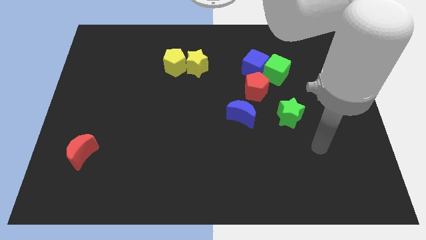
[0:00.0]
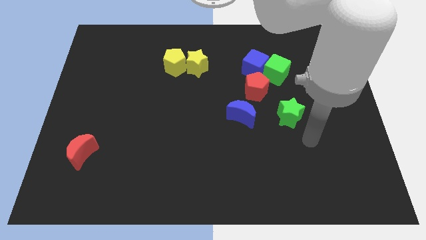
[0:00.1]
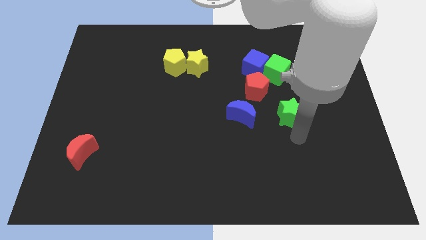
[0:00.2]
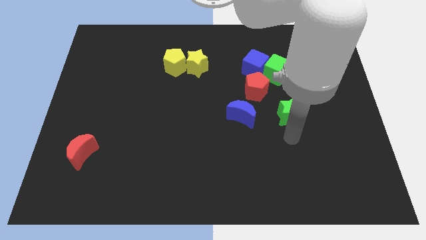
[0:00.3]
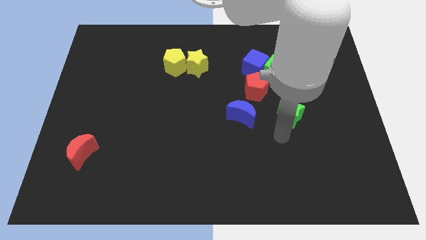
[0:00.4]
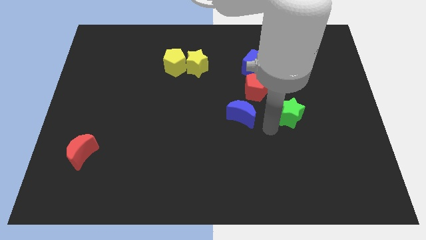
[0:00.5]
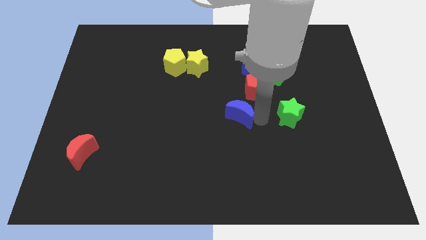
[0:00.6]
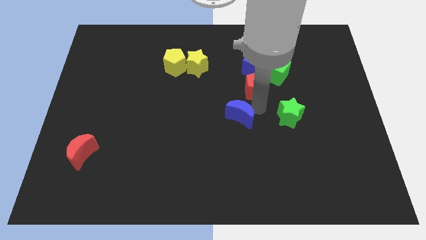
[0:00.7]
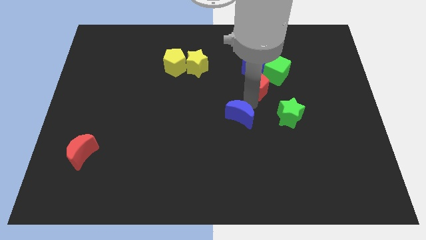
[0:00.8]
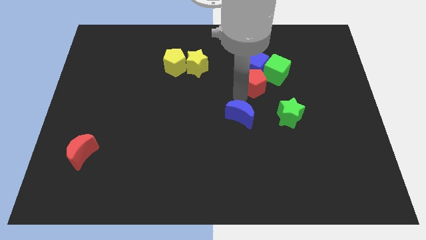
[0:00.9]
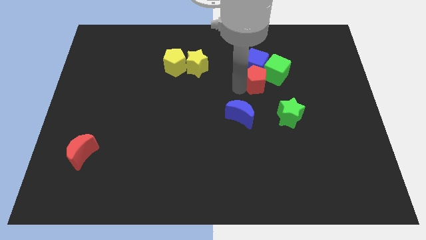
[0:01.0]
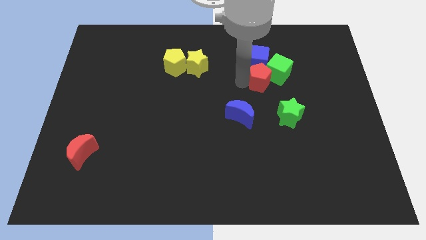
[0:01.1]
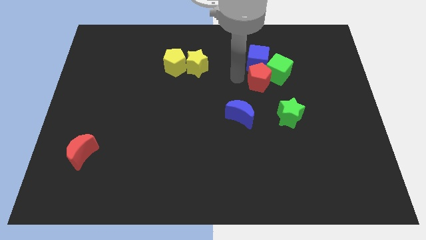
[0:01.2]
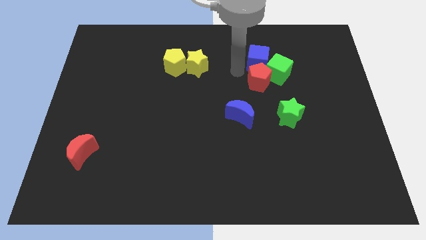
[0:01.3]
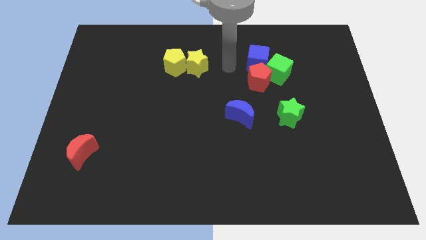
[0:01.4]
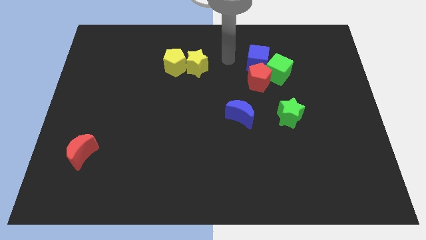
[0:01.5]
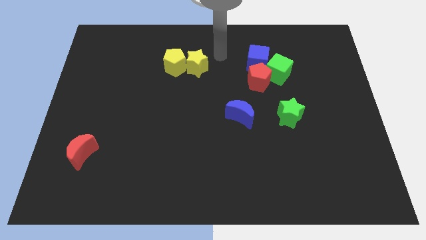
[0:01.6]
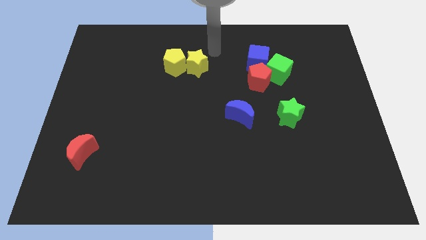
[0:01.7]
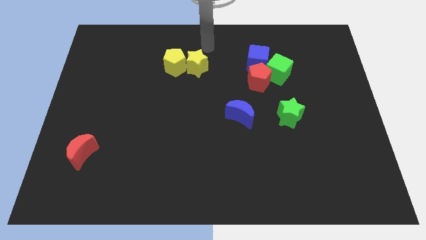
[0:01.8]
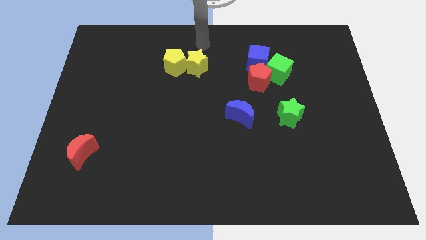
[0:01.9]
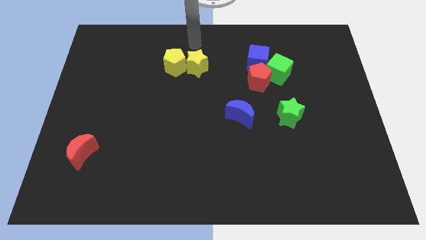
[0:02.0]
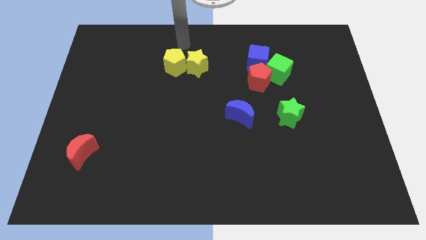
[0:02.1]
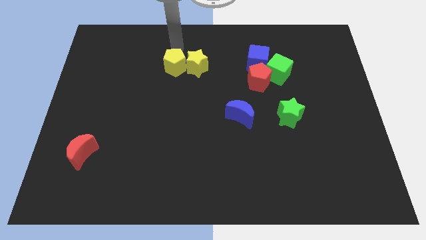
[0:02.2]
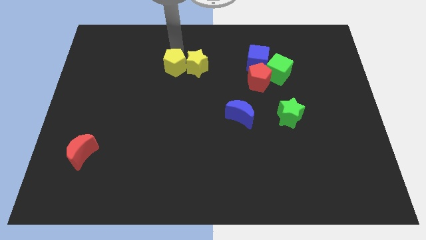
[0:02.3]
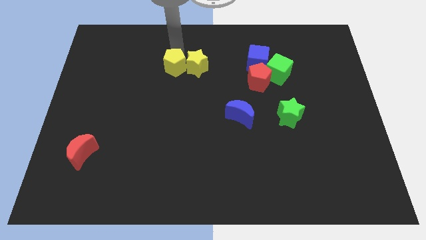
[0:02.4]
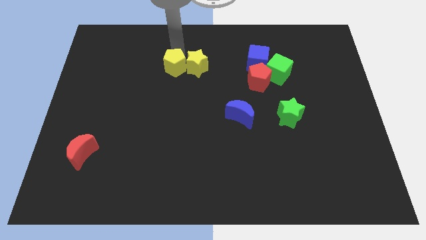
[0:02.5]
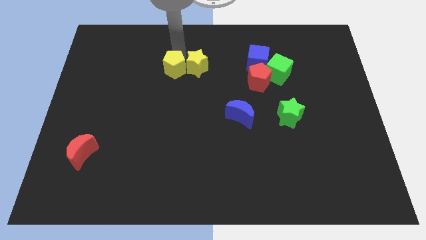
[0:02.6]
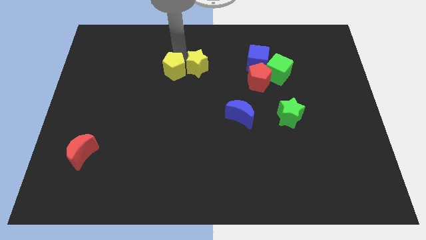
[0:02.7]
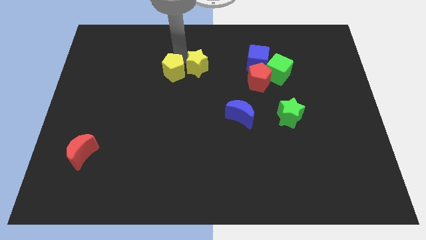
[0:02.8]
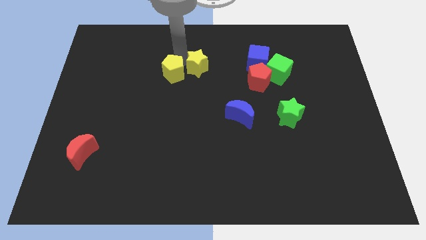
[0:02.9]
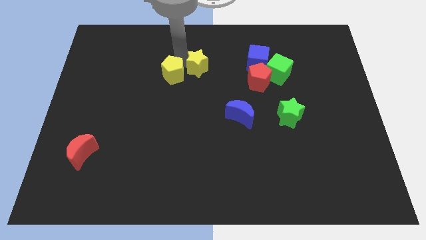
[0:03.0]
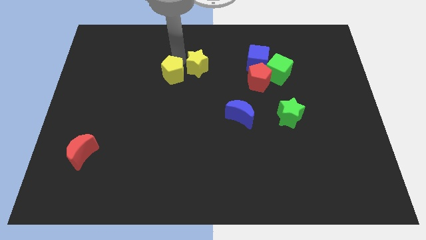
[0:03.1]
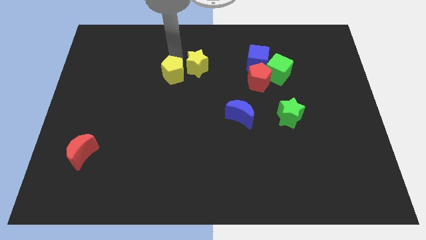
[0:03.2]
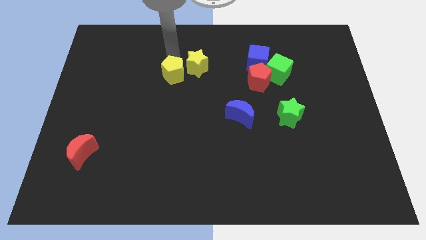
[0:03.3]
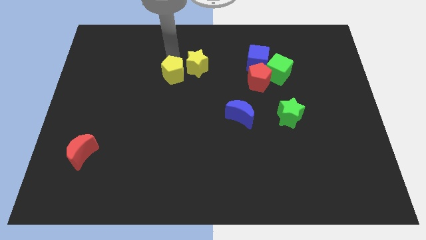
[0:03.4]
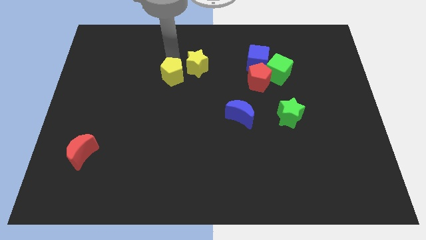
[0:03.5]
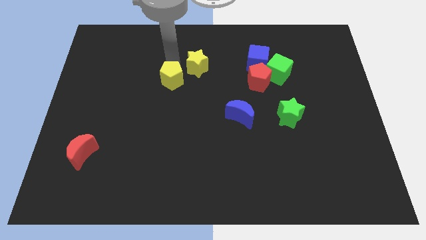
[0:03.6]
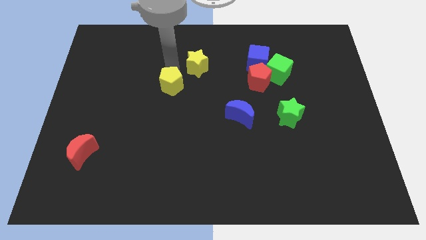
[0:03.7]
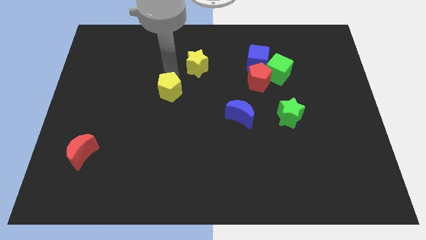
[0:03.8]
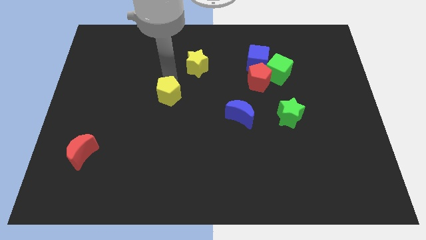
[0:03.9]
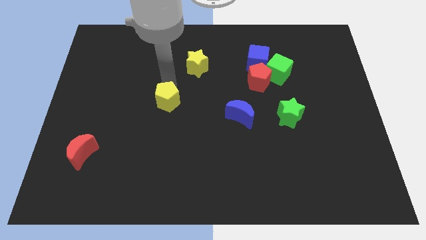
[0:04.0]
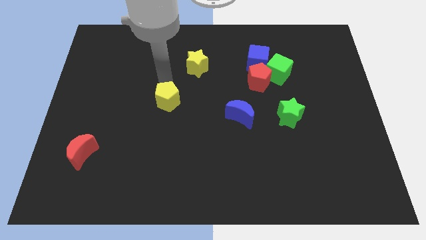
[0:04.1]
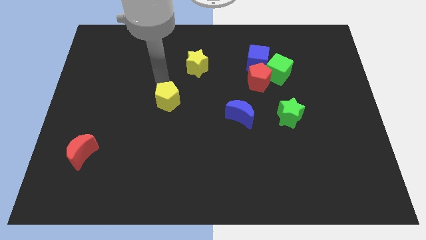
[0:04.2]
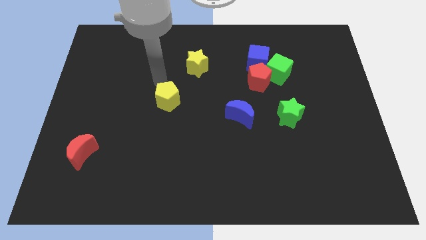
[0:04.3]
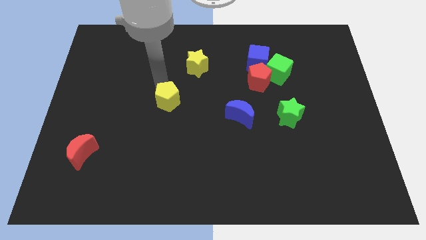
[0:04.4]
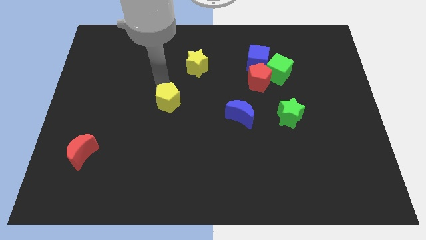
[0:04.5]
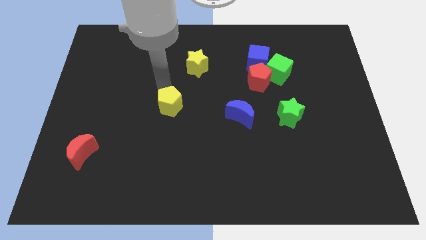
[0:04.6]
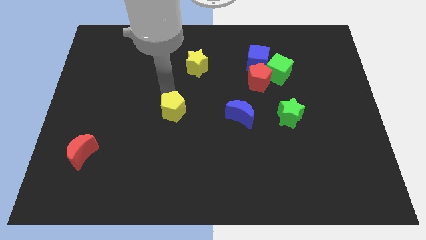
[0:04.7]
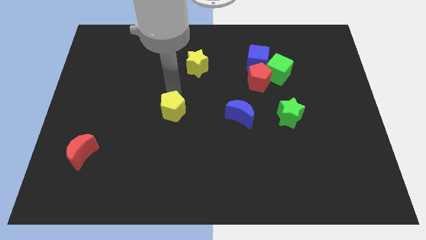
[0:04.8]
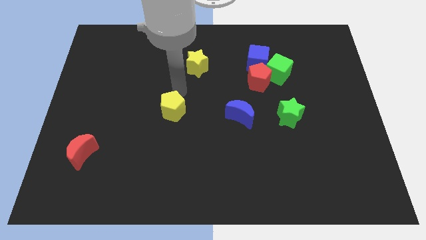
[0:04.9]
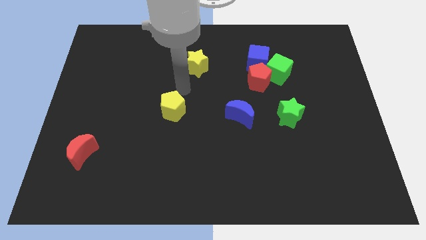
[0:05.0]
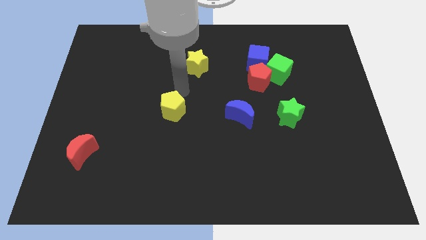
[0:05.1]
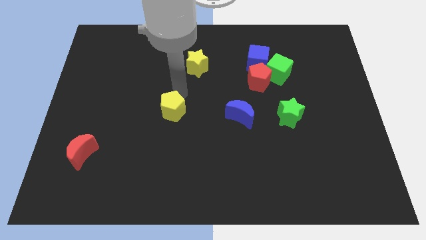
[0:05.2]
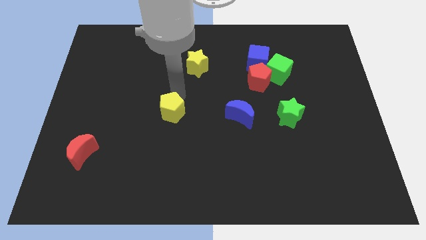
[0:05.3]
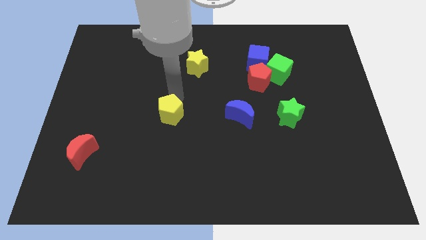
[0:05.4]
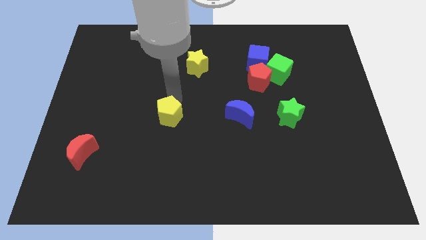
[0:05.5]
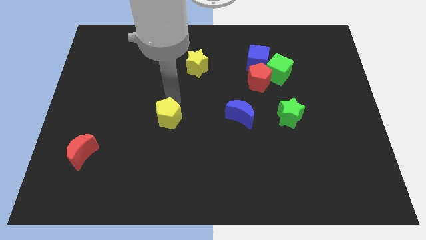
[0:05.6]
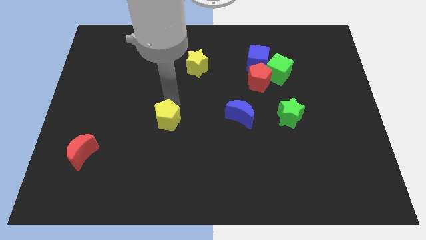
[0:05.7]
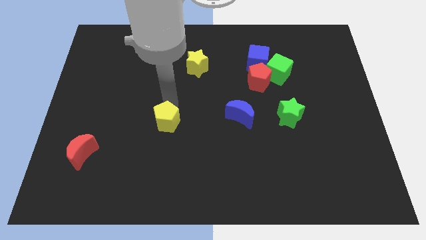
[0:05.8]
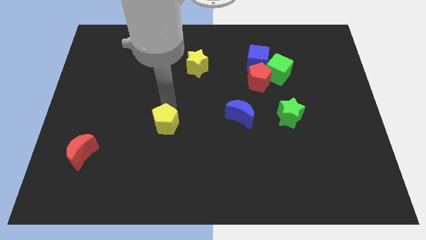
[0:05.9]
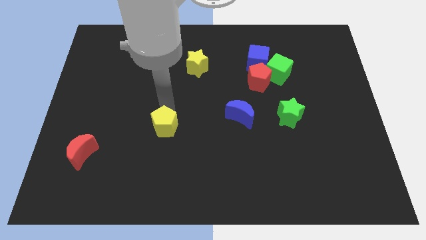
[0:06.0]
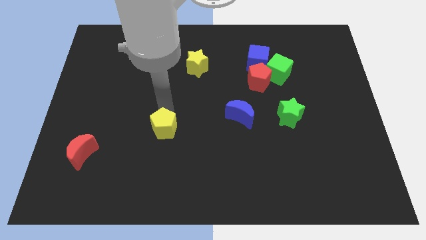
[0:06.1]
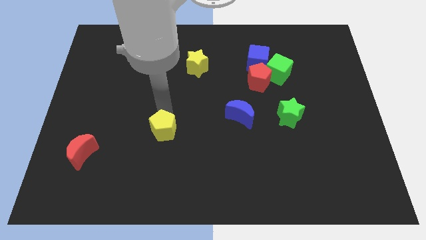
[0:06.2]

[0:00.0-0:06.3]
move the yellow pentagon down

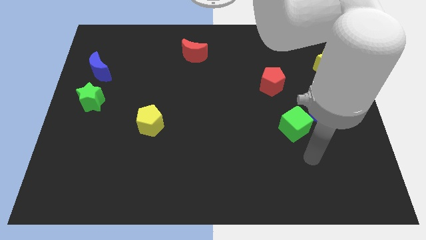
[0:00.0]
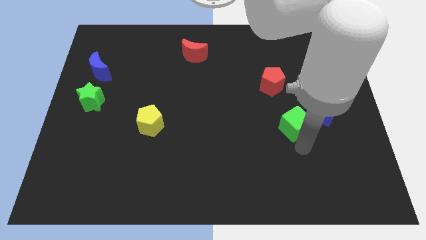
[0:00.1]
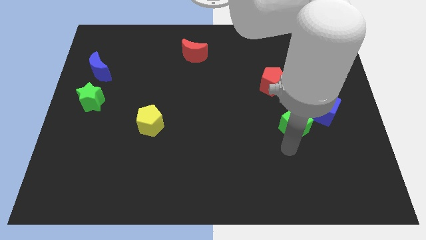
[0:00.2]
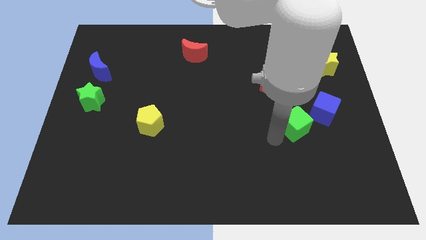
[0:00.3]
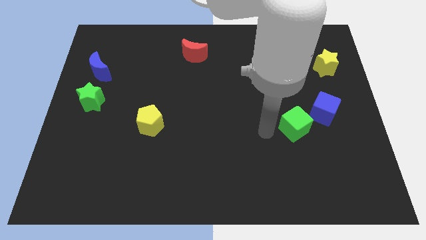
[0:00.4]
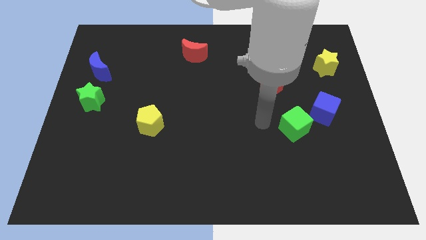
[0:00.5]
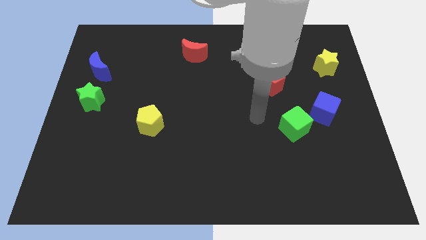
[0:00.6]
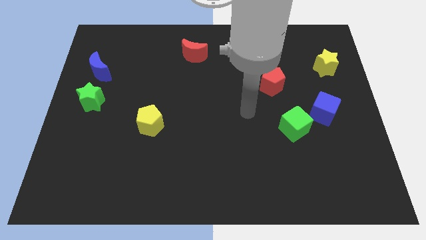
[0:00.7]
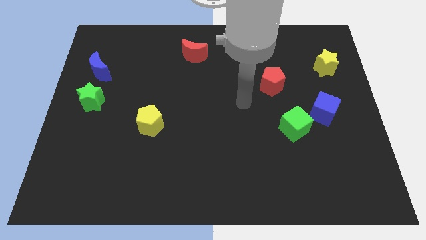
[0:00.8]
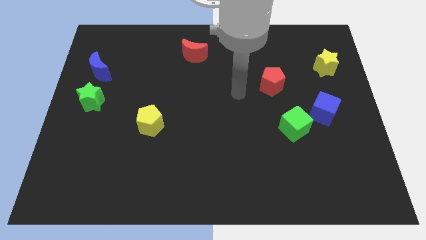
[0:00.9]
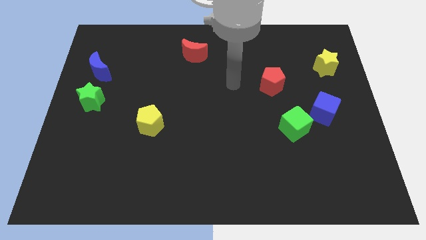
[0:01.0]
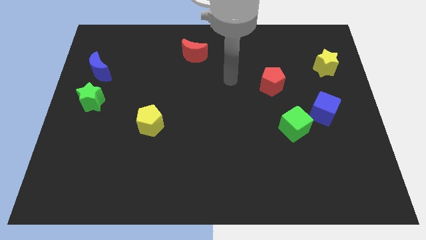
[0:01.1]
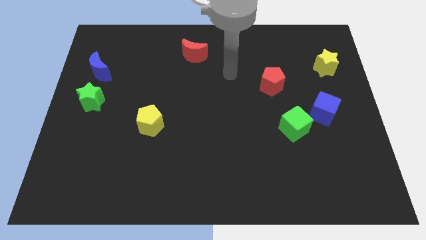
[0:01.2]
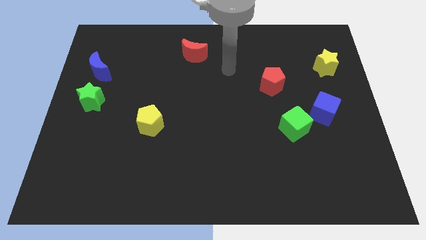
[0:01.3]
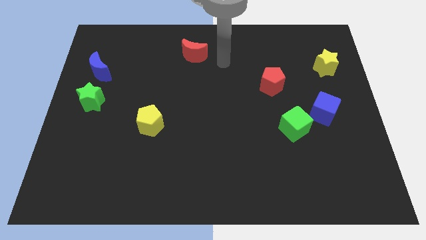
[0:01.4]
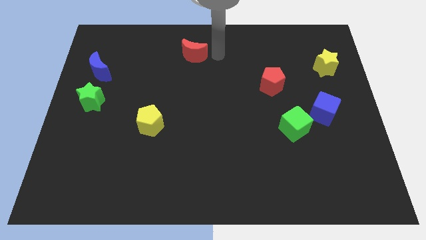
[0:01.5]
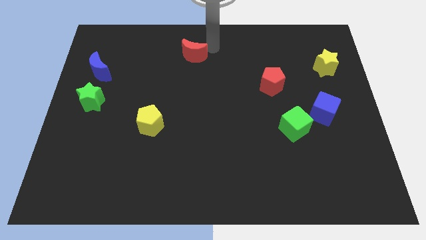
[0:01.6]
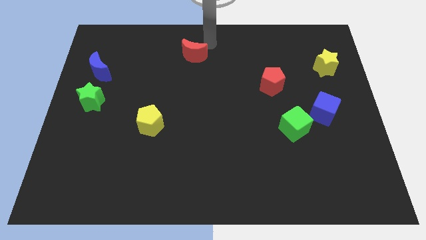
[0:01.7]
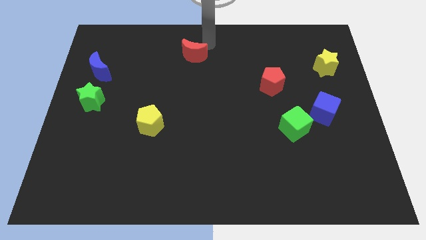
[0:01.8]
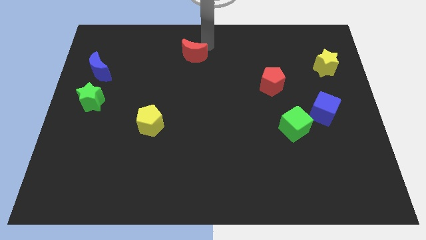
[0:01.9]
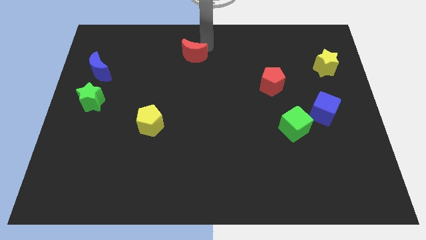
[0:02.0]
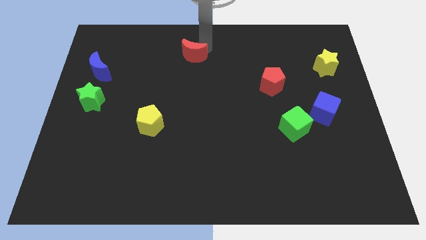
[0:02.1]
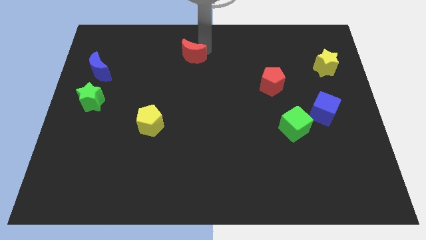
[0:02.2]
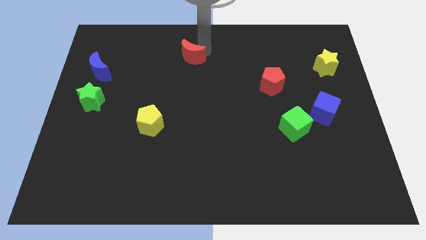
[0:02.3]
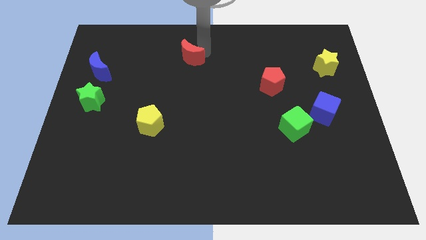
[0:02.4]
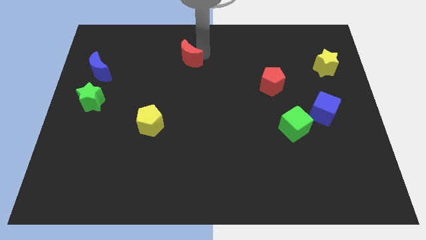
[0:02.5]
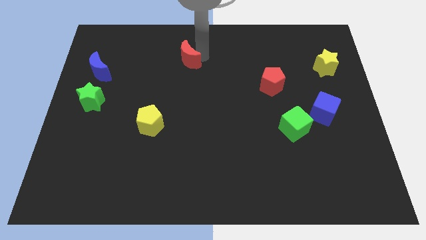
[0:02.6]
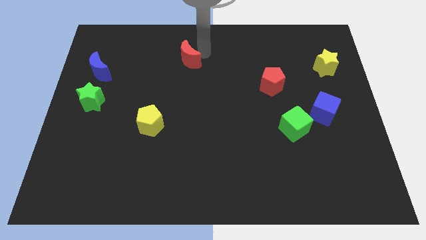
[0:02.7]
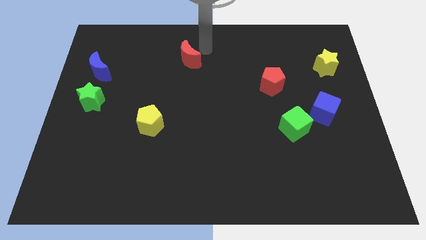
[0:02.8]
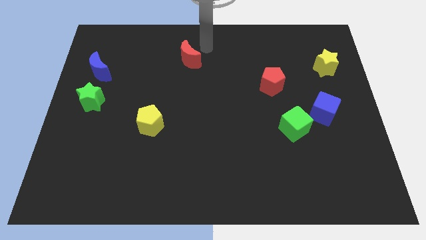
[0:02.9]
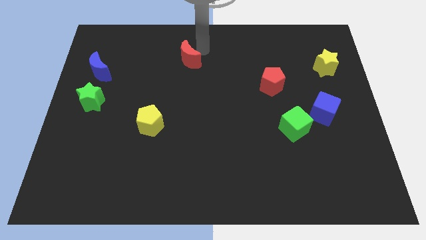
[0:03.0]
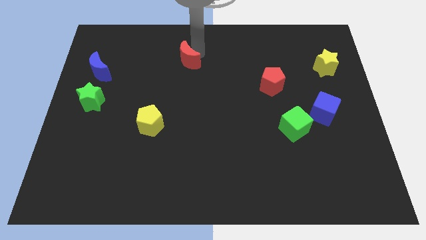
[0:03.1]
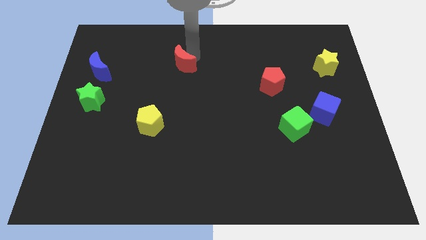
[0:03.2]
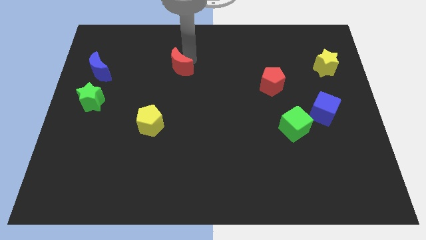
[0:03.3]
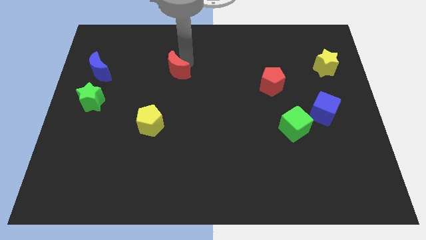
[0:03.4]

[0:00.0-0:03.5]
push the red moon downwards and left a little
